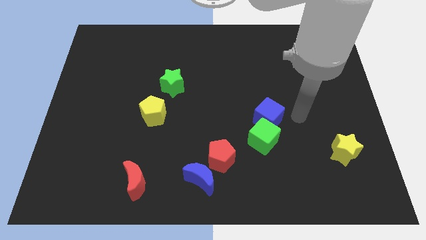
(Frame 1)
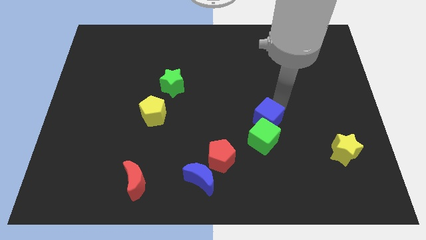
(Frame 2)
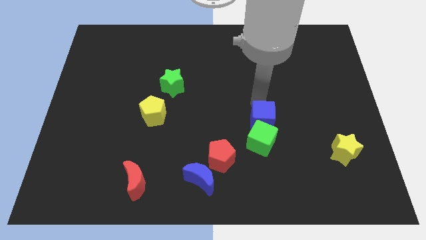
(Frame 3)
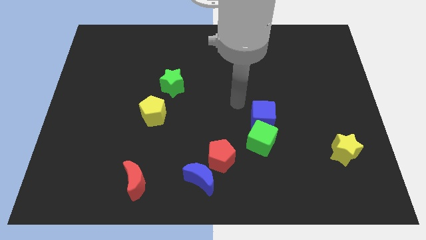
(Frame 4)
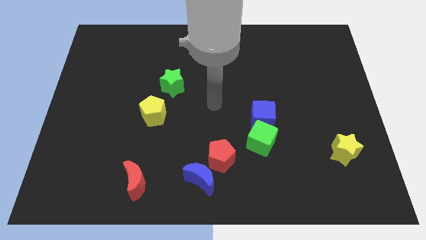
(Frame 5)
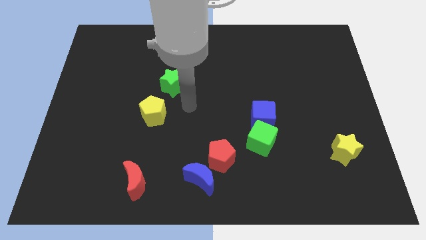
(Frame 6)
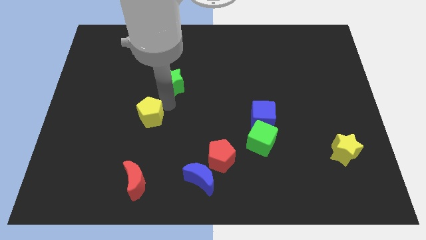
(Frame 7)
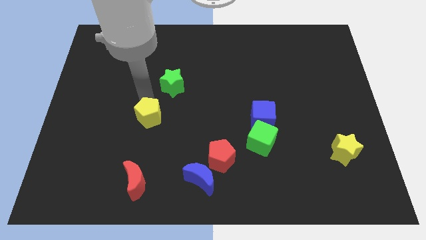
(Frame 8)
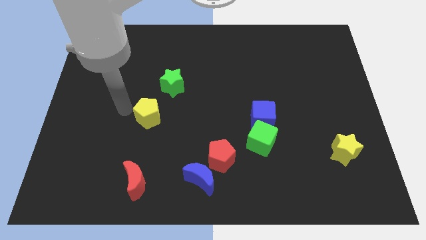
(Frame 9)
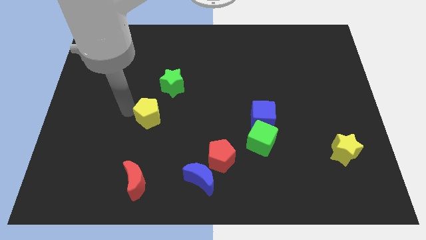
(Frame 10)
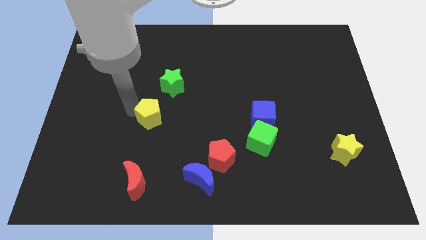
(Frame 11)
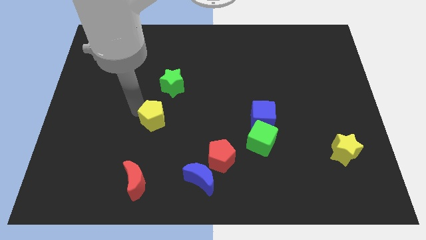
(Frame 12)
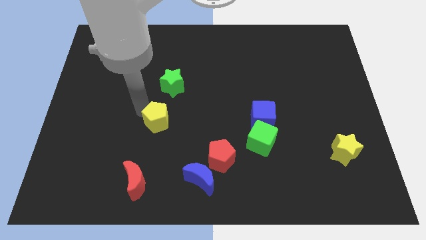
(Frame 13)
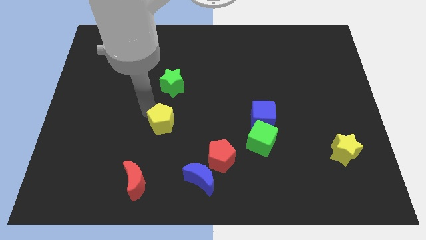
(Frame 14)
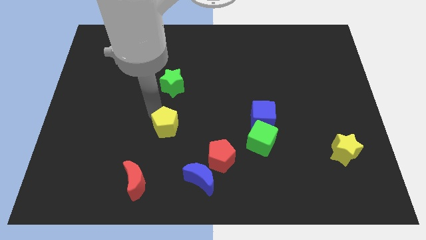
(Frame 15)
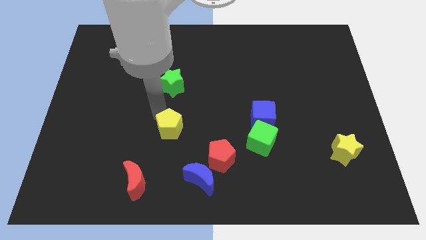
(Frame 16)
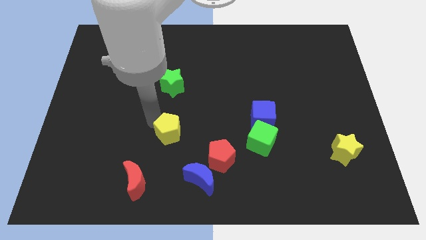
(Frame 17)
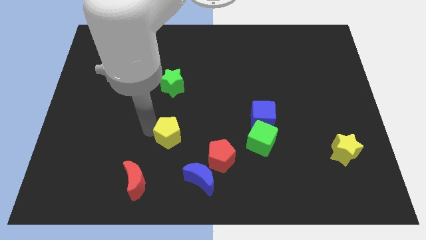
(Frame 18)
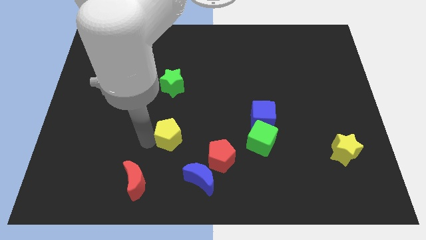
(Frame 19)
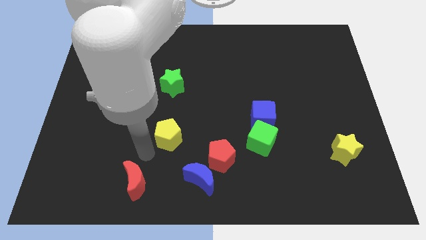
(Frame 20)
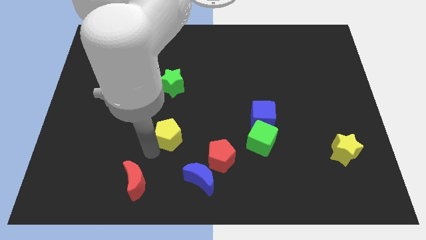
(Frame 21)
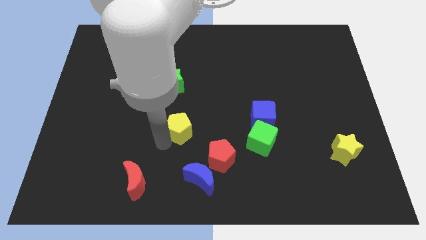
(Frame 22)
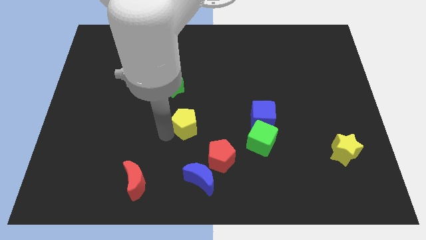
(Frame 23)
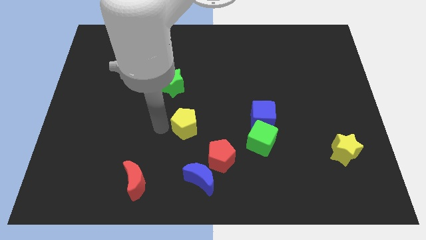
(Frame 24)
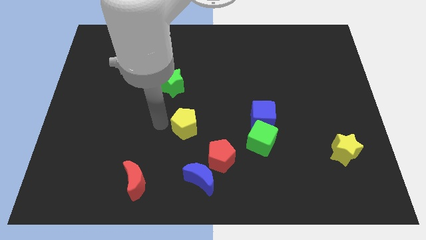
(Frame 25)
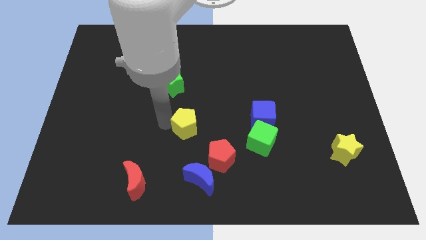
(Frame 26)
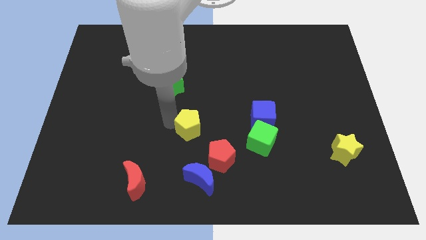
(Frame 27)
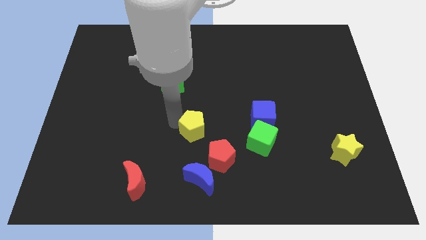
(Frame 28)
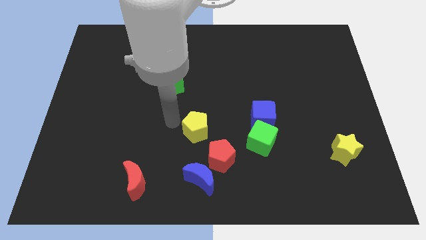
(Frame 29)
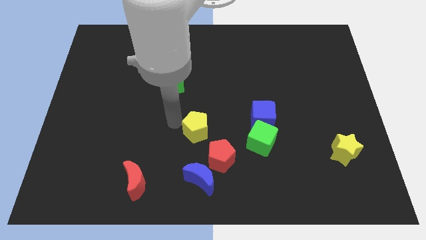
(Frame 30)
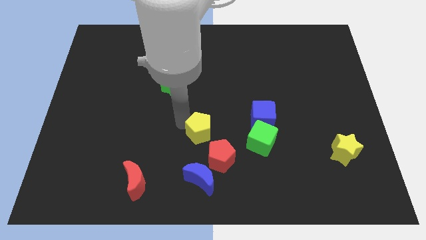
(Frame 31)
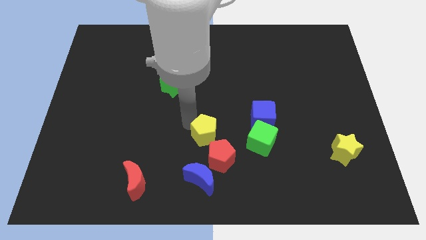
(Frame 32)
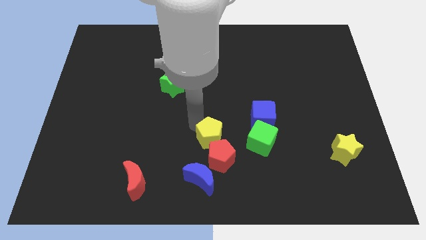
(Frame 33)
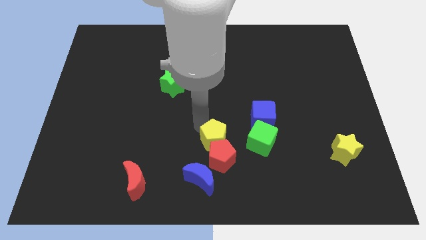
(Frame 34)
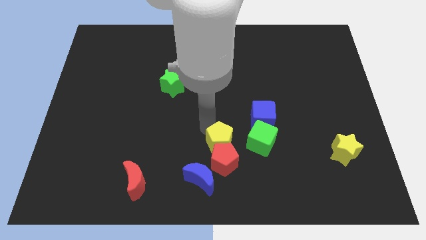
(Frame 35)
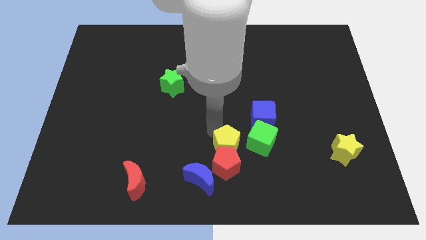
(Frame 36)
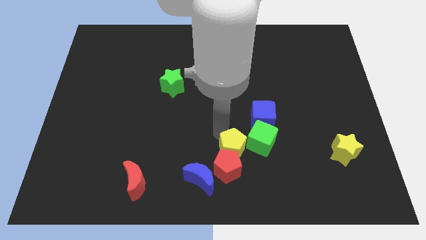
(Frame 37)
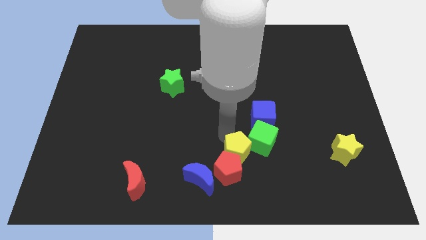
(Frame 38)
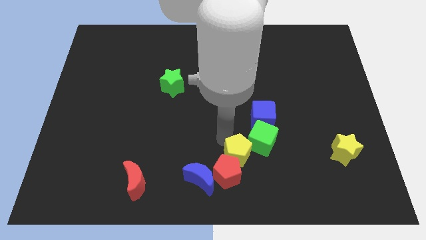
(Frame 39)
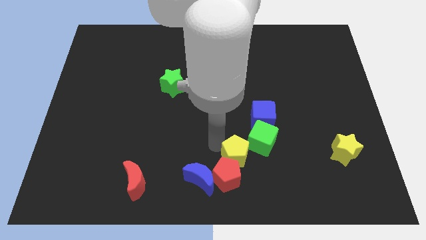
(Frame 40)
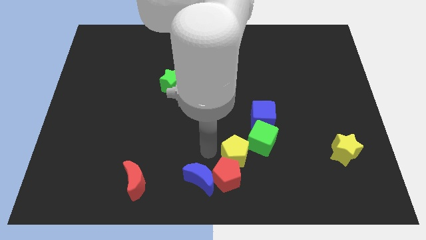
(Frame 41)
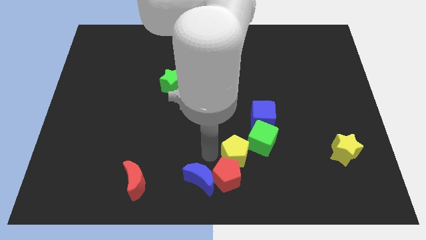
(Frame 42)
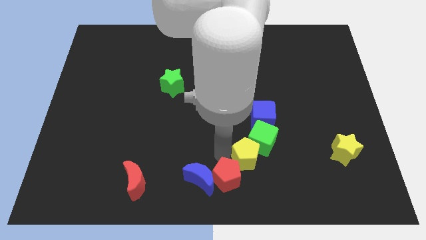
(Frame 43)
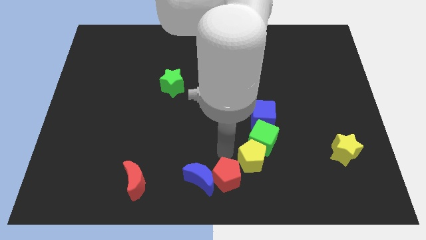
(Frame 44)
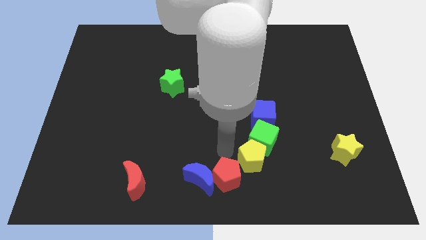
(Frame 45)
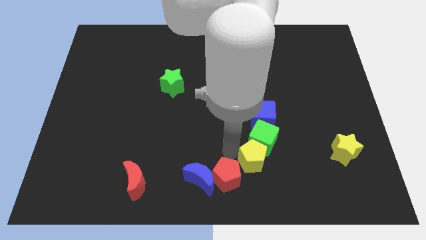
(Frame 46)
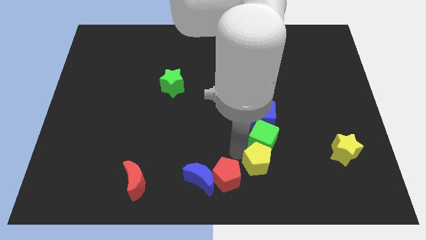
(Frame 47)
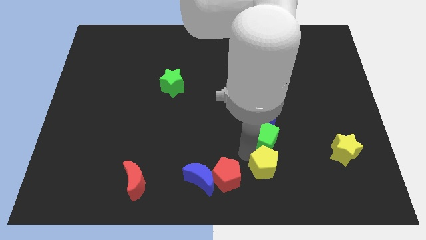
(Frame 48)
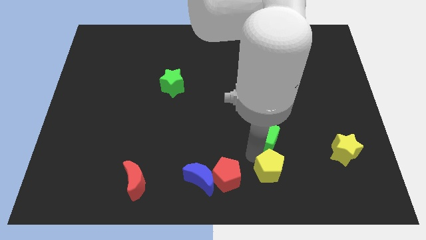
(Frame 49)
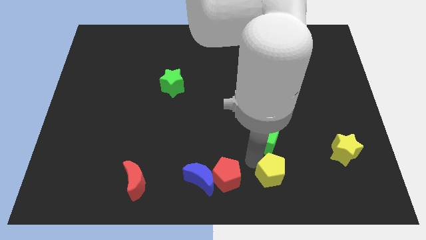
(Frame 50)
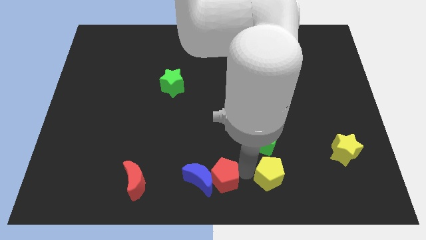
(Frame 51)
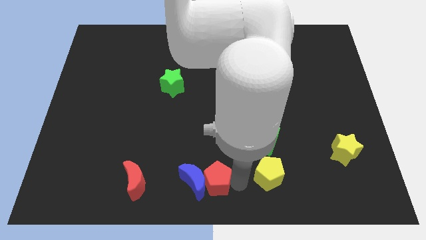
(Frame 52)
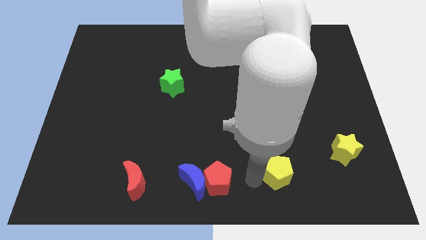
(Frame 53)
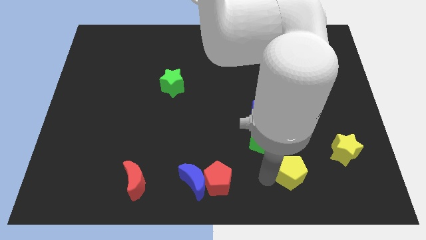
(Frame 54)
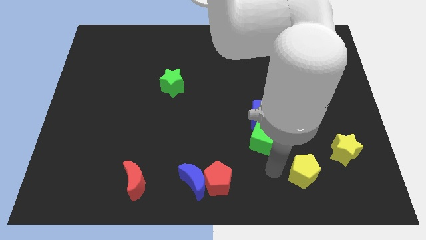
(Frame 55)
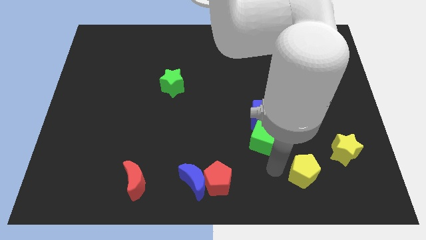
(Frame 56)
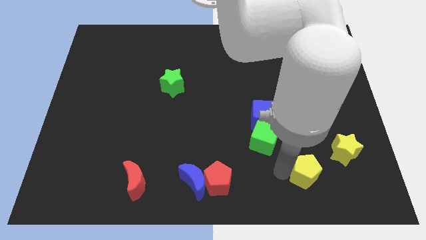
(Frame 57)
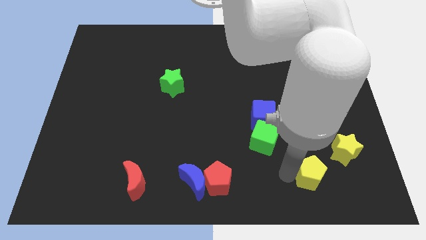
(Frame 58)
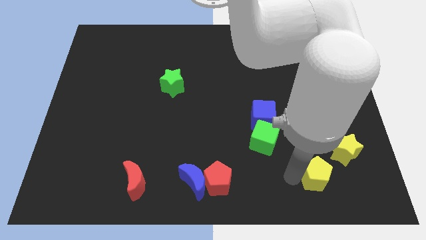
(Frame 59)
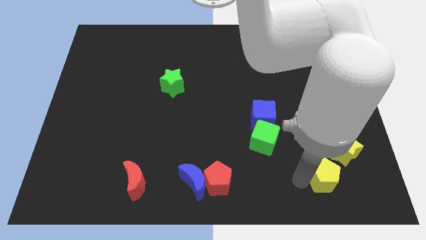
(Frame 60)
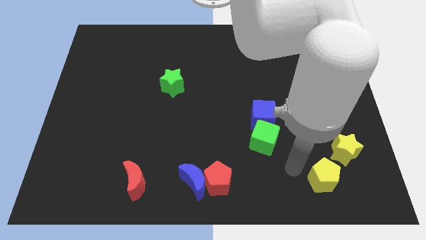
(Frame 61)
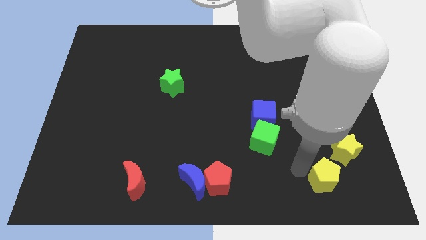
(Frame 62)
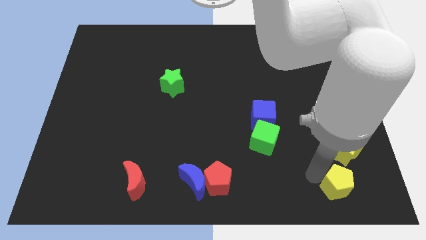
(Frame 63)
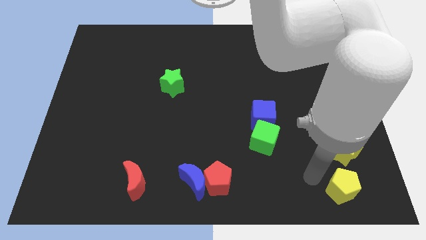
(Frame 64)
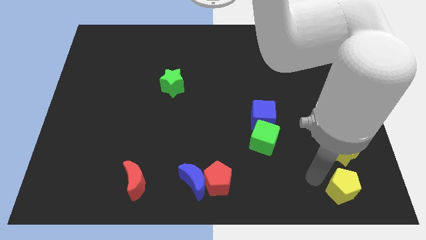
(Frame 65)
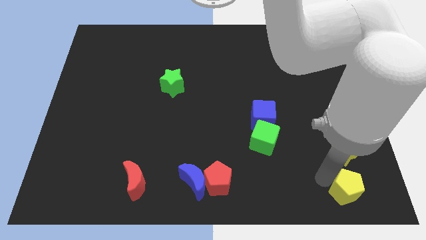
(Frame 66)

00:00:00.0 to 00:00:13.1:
push the yellow pentagon to the bottom right of the board
